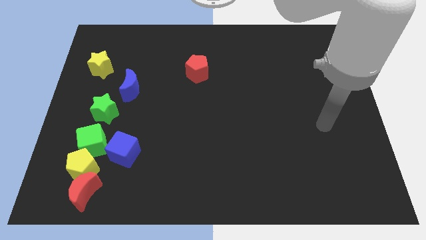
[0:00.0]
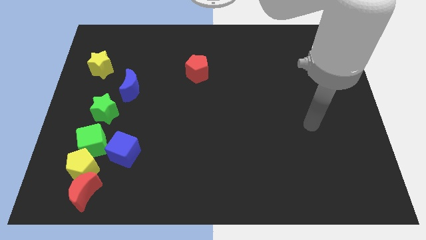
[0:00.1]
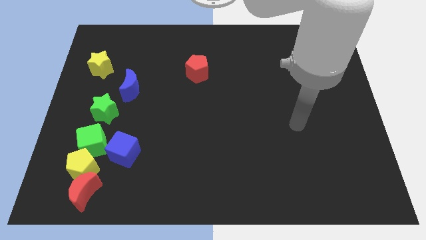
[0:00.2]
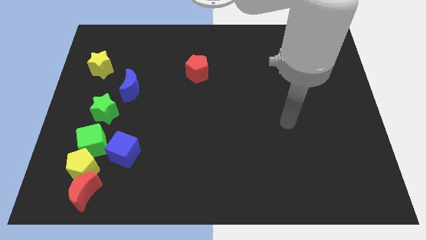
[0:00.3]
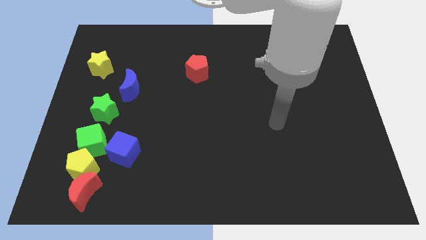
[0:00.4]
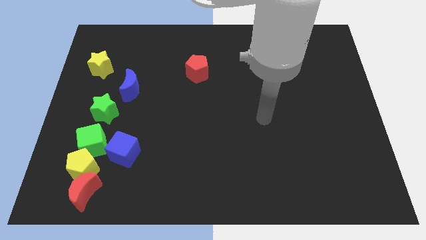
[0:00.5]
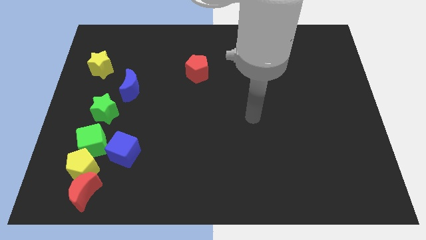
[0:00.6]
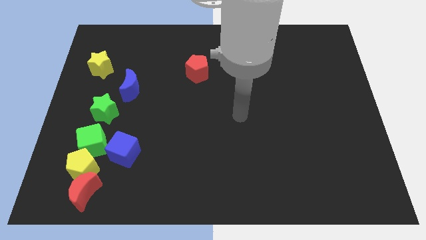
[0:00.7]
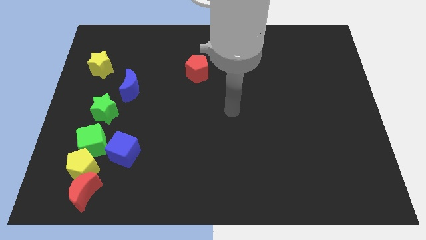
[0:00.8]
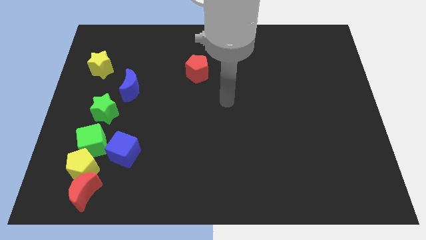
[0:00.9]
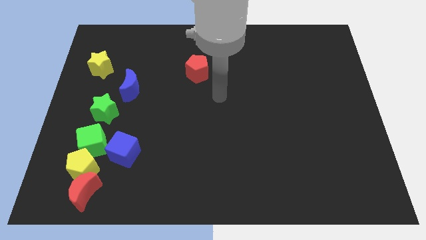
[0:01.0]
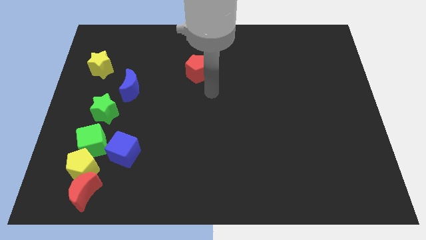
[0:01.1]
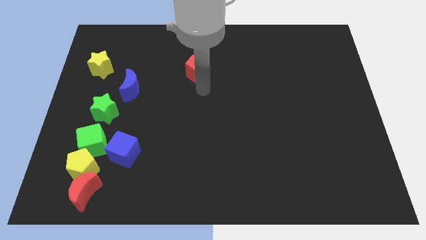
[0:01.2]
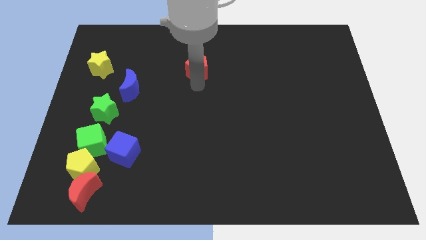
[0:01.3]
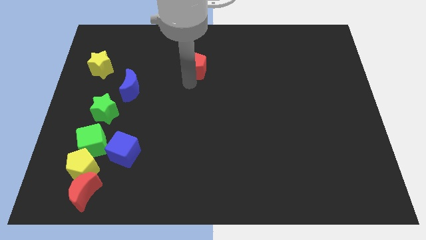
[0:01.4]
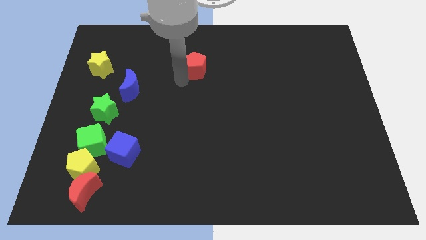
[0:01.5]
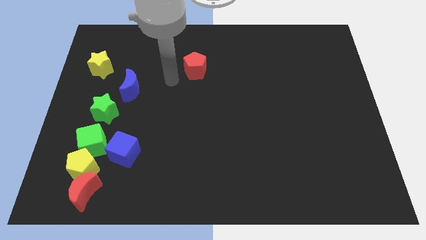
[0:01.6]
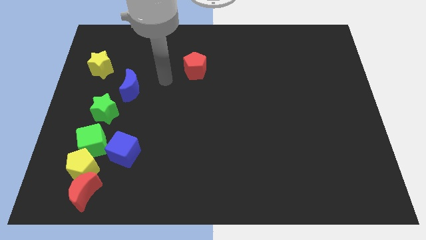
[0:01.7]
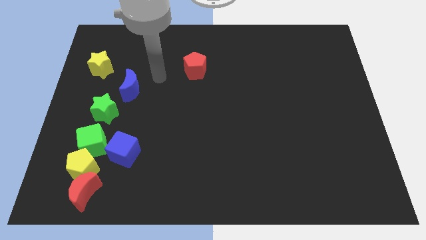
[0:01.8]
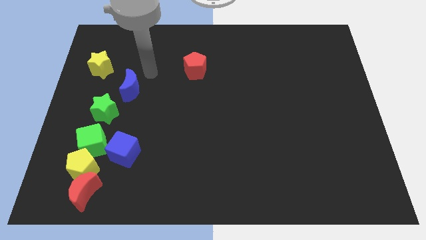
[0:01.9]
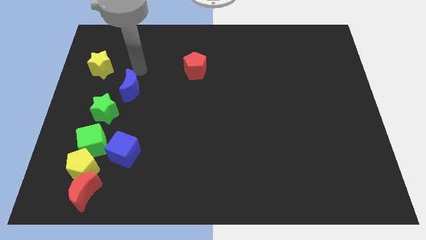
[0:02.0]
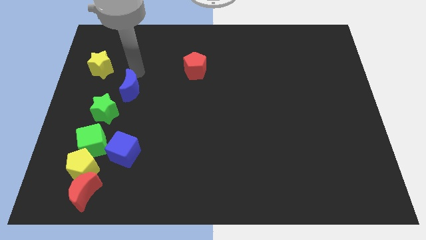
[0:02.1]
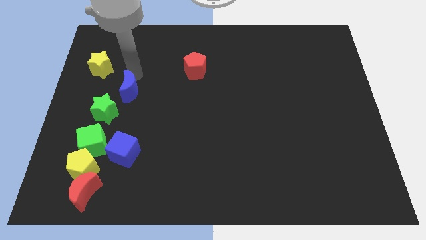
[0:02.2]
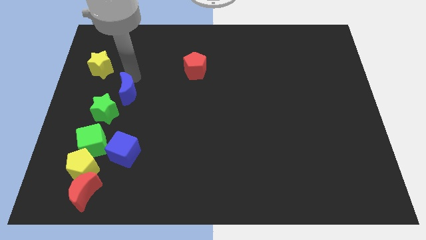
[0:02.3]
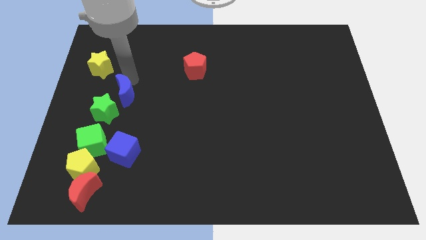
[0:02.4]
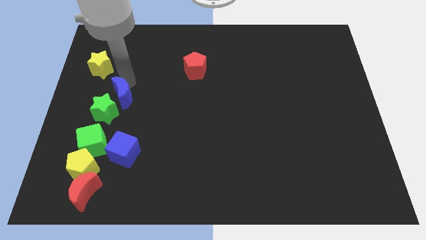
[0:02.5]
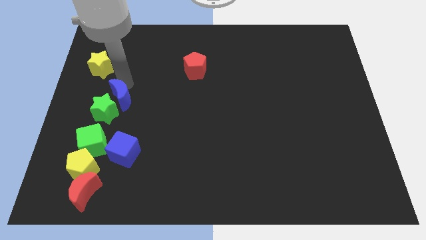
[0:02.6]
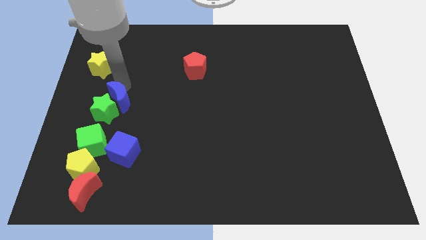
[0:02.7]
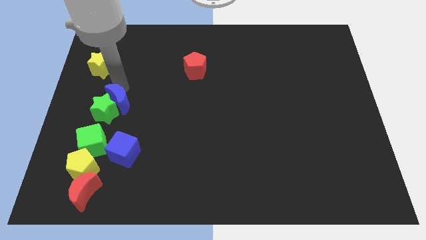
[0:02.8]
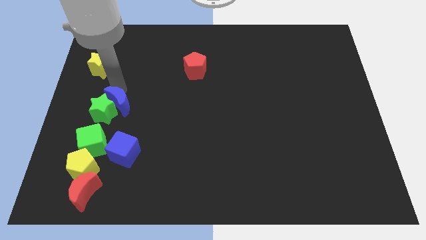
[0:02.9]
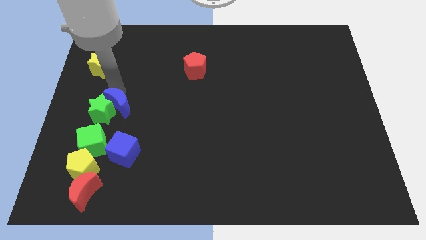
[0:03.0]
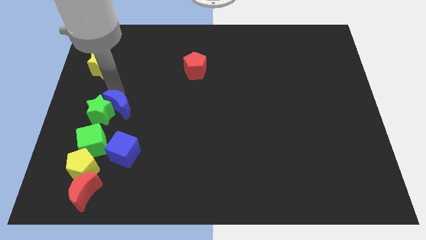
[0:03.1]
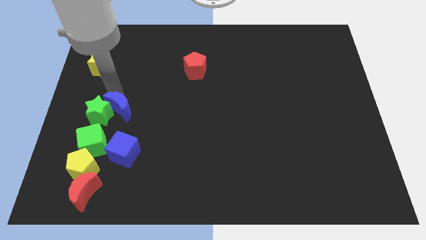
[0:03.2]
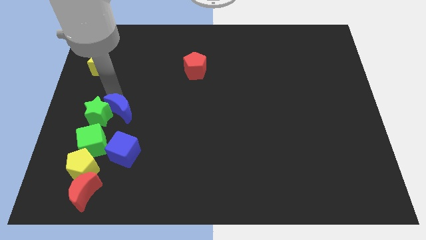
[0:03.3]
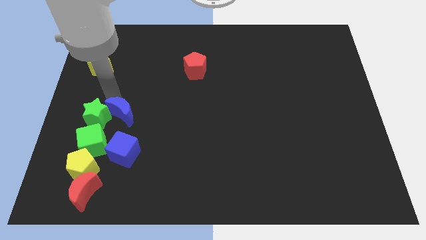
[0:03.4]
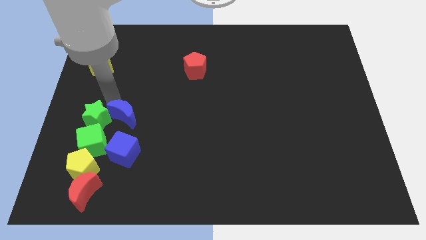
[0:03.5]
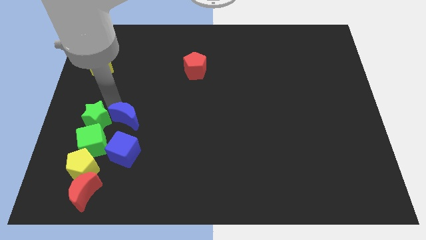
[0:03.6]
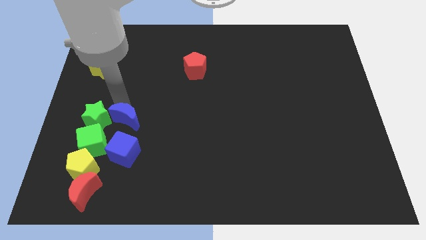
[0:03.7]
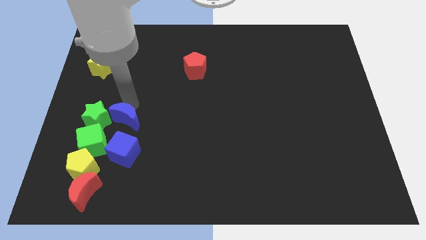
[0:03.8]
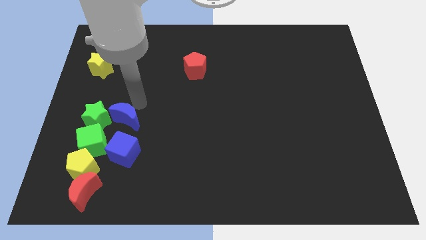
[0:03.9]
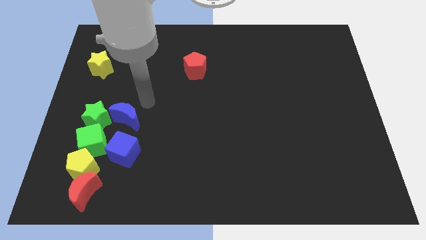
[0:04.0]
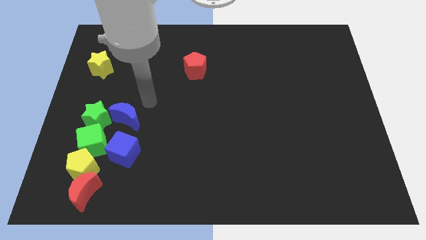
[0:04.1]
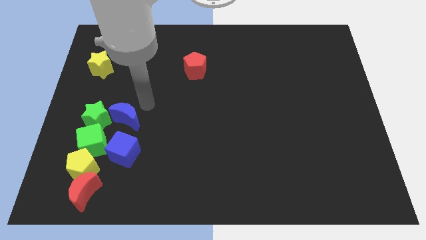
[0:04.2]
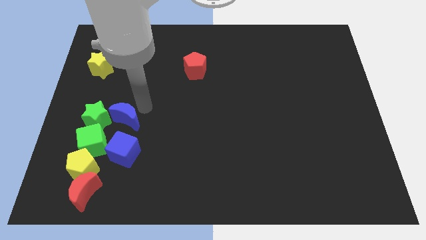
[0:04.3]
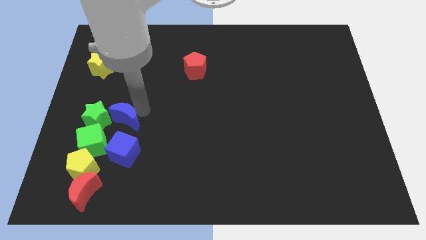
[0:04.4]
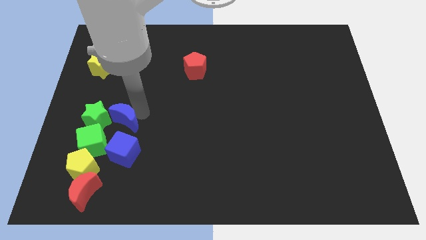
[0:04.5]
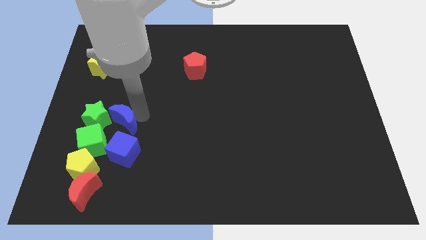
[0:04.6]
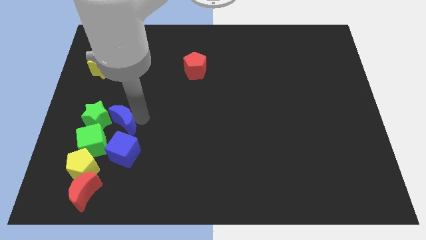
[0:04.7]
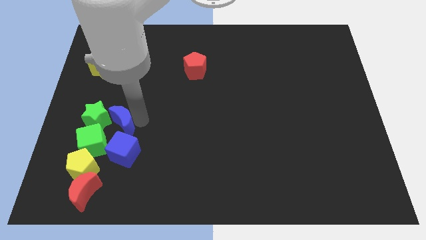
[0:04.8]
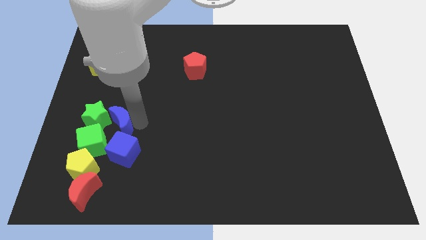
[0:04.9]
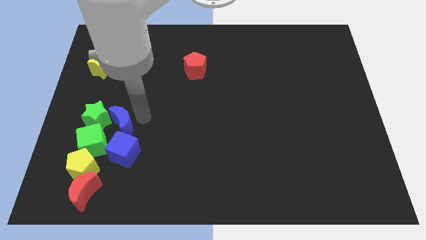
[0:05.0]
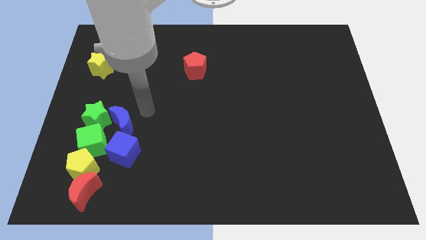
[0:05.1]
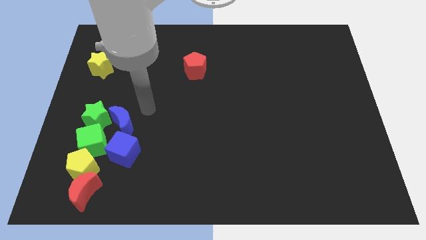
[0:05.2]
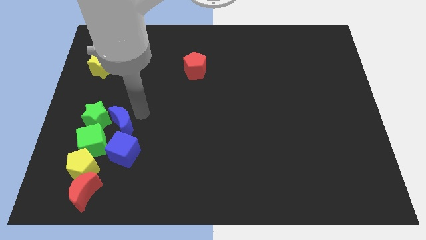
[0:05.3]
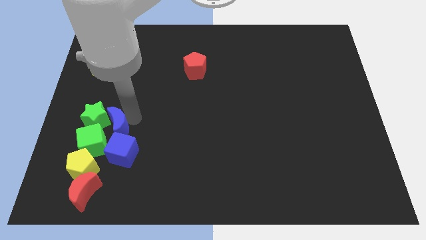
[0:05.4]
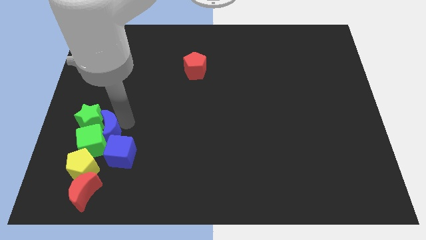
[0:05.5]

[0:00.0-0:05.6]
slide the blue moon to the green cube

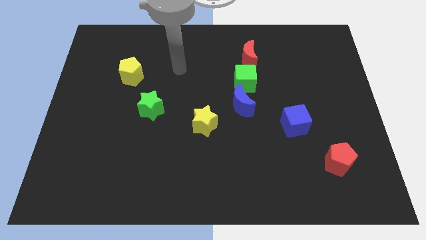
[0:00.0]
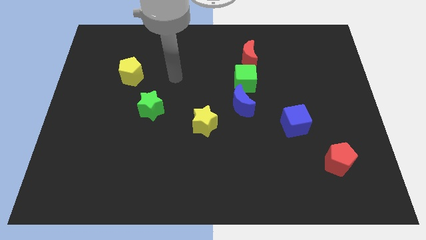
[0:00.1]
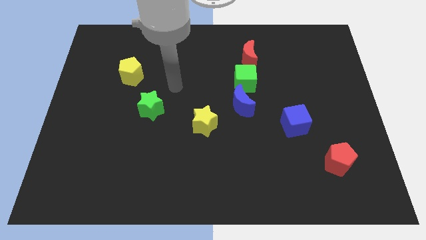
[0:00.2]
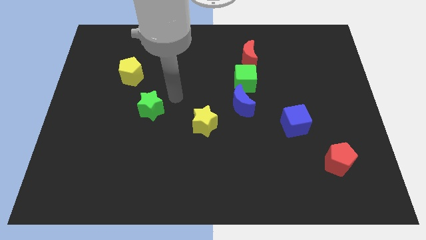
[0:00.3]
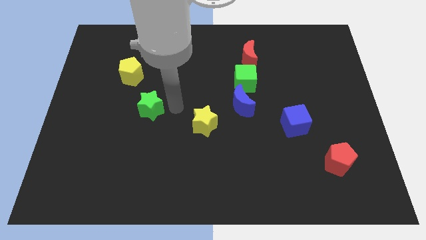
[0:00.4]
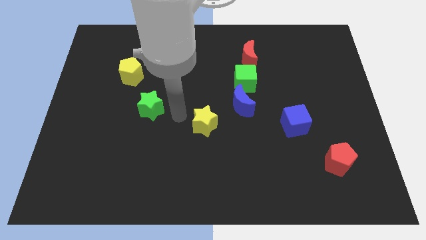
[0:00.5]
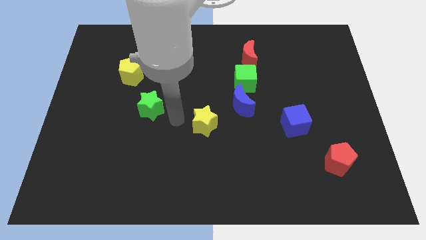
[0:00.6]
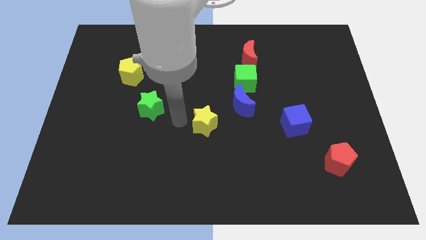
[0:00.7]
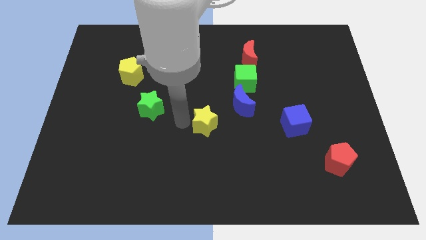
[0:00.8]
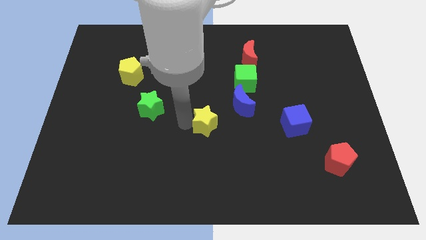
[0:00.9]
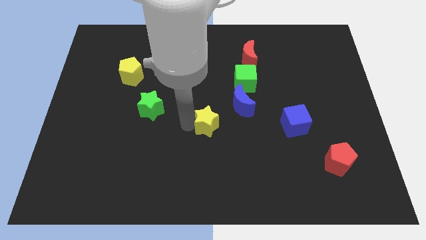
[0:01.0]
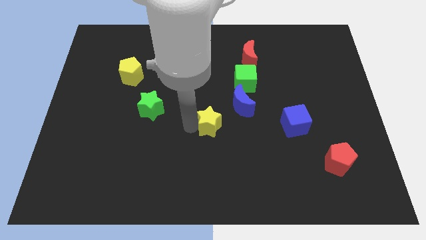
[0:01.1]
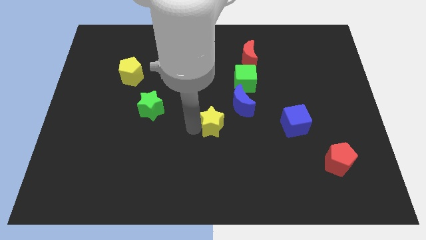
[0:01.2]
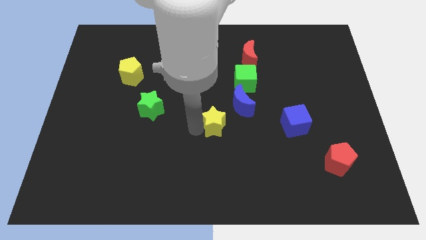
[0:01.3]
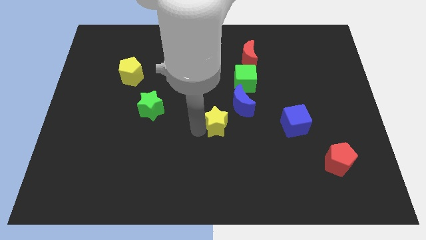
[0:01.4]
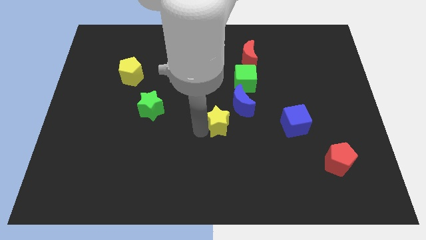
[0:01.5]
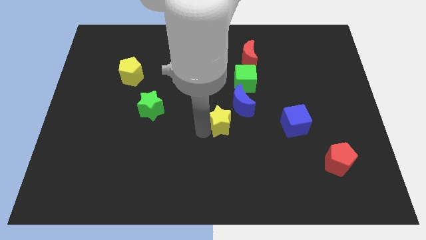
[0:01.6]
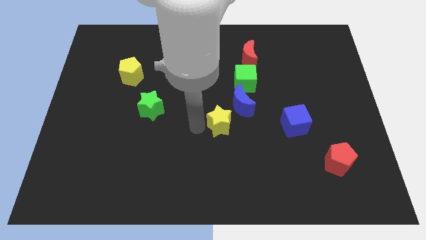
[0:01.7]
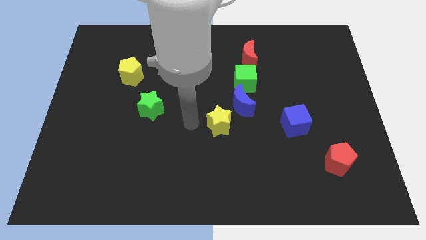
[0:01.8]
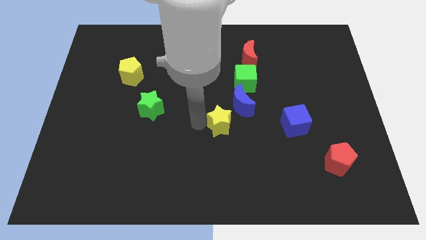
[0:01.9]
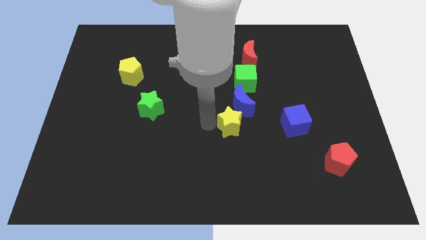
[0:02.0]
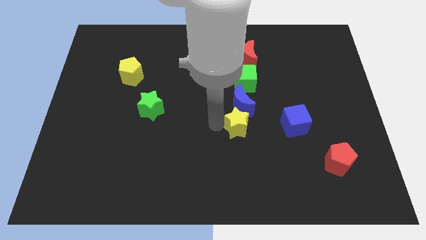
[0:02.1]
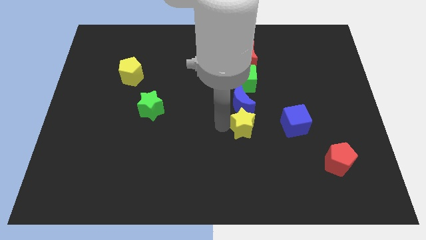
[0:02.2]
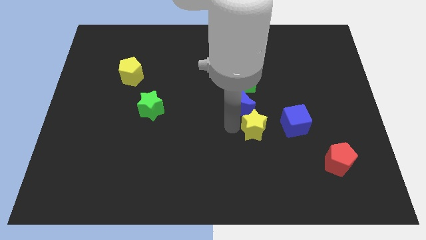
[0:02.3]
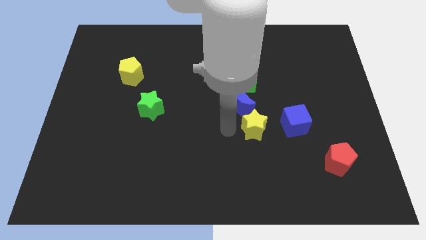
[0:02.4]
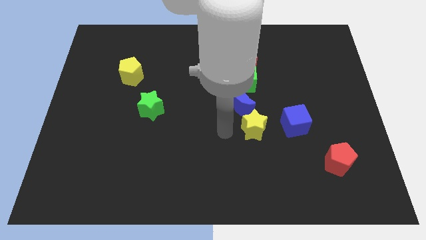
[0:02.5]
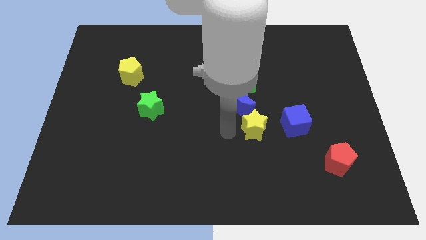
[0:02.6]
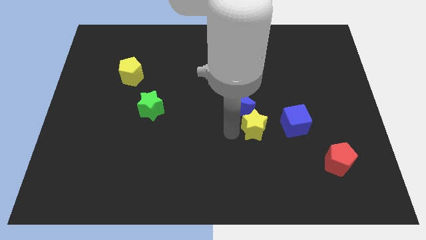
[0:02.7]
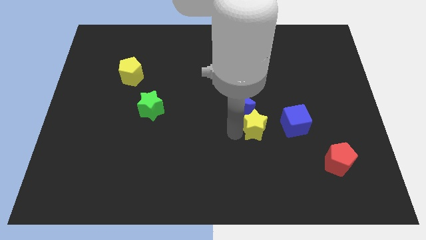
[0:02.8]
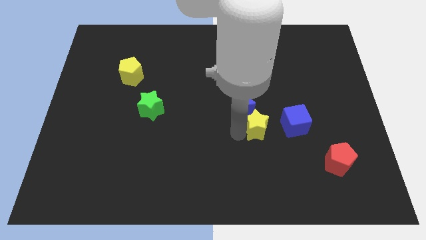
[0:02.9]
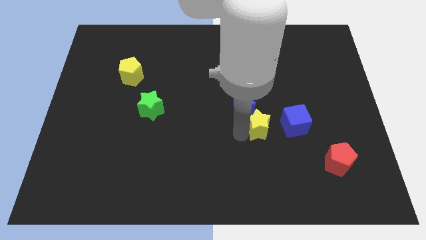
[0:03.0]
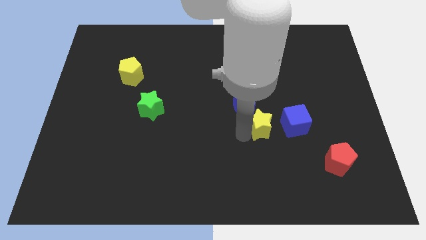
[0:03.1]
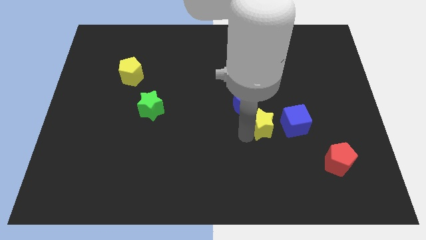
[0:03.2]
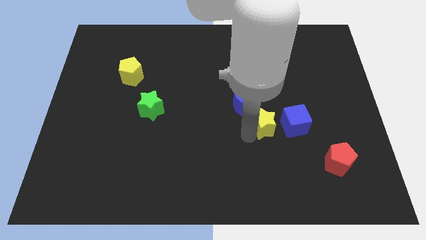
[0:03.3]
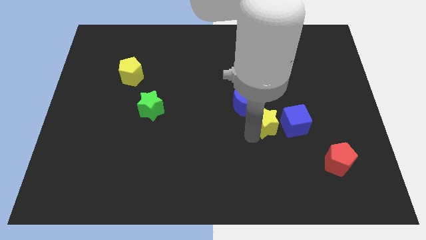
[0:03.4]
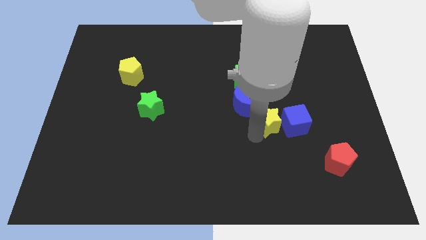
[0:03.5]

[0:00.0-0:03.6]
move the yellow star close to the blue cube
